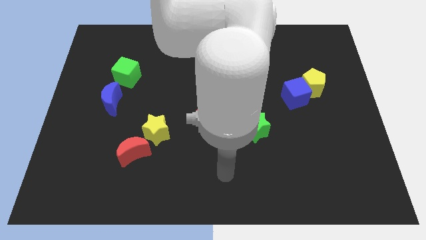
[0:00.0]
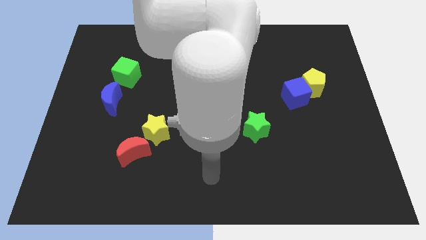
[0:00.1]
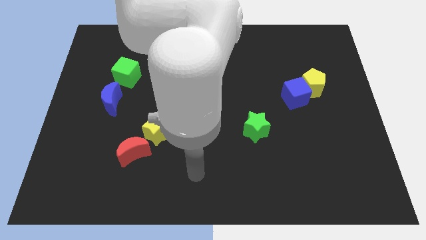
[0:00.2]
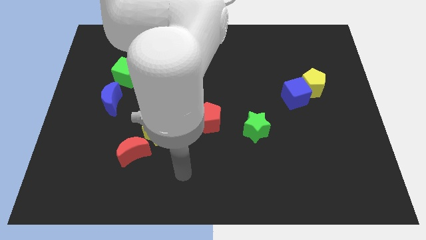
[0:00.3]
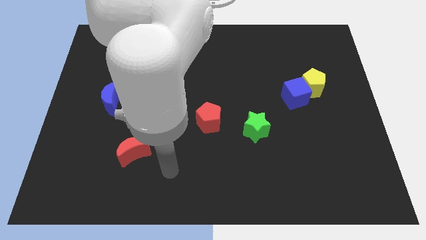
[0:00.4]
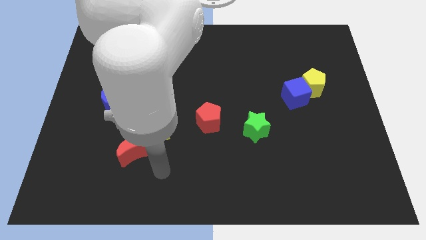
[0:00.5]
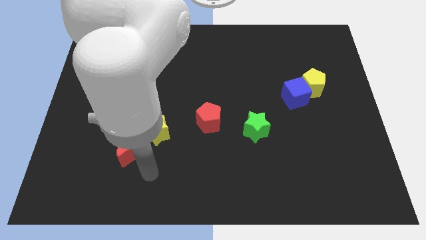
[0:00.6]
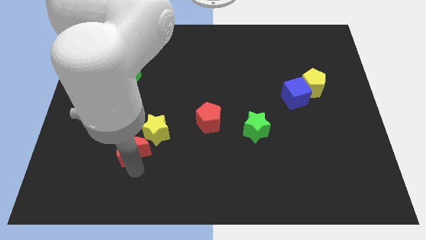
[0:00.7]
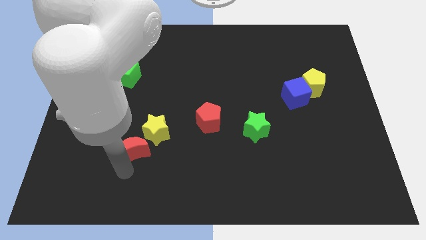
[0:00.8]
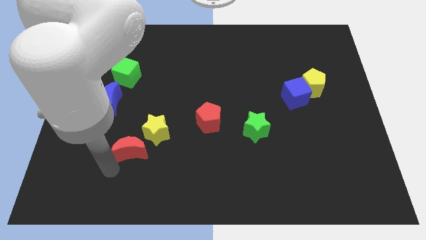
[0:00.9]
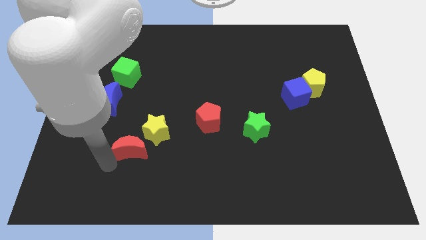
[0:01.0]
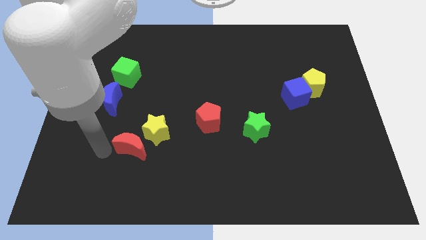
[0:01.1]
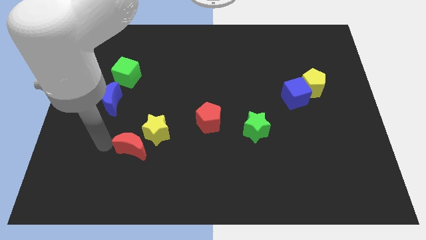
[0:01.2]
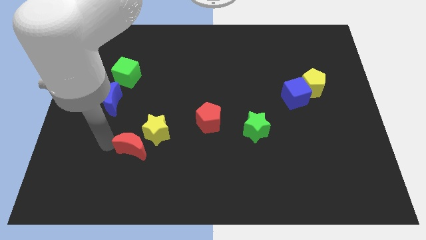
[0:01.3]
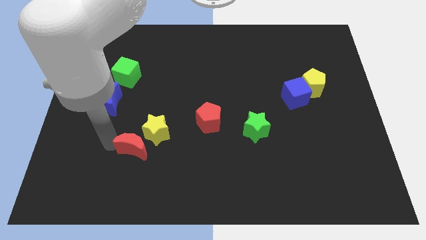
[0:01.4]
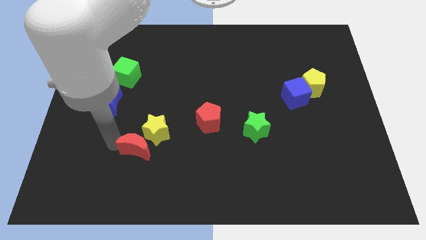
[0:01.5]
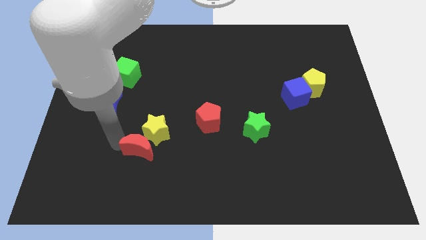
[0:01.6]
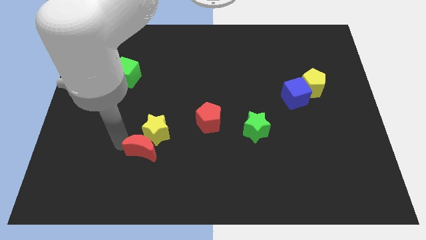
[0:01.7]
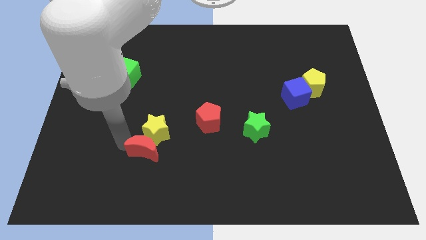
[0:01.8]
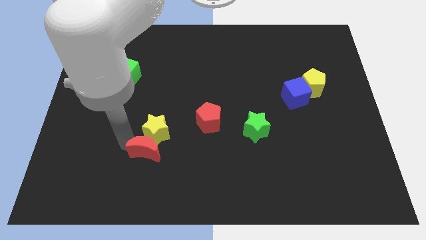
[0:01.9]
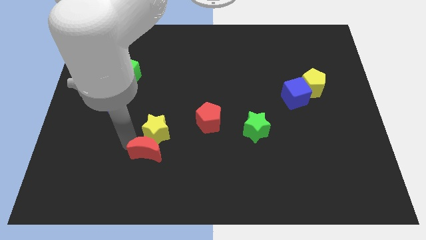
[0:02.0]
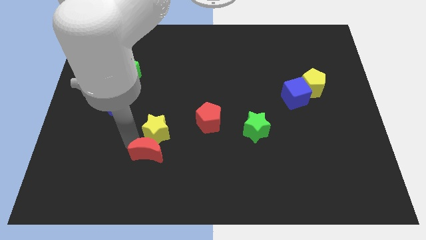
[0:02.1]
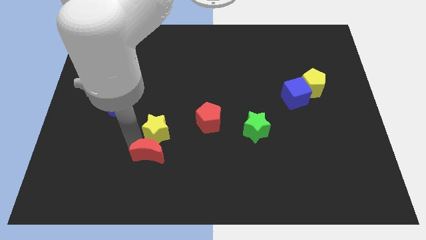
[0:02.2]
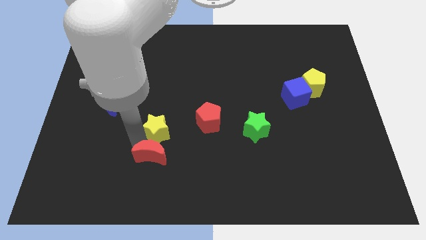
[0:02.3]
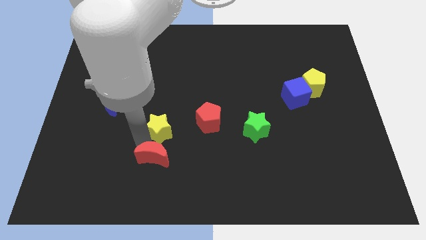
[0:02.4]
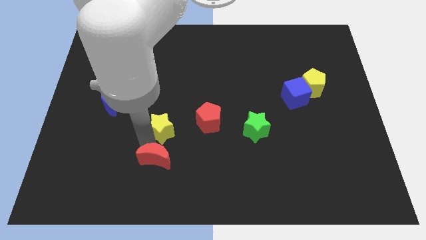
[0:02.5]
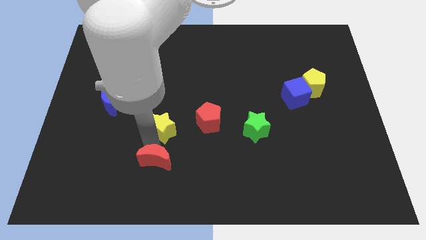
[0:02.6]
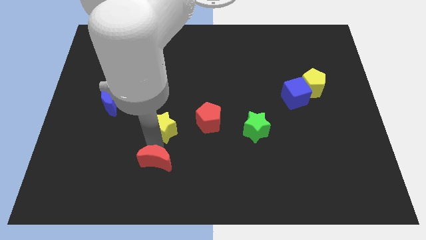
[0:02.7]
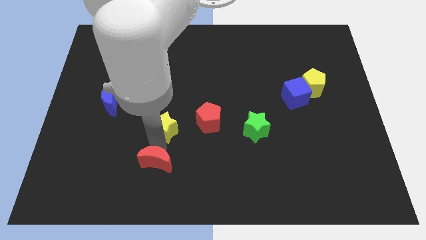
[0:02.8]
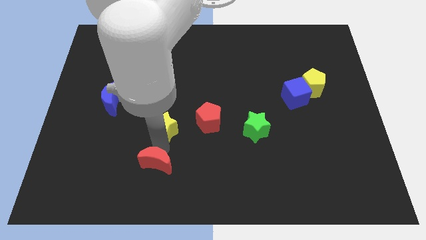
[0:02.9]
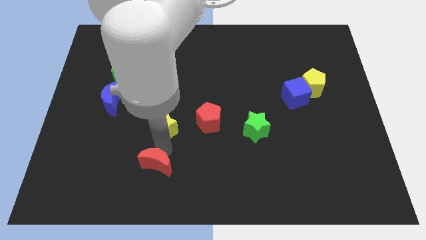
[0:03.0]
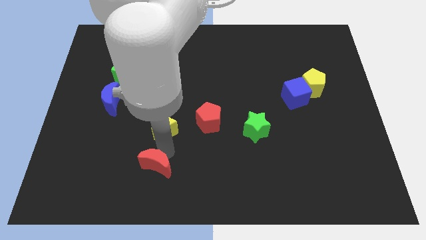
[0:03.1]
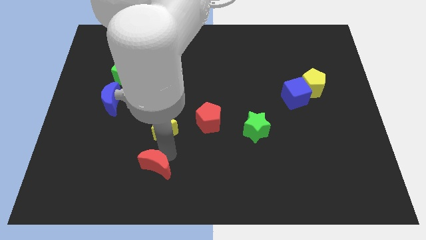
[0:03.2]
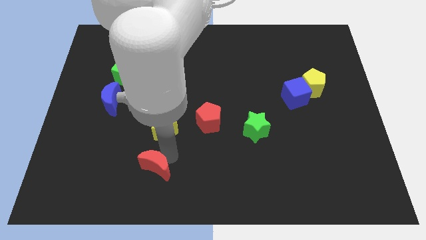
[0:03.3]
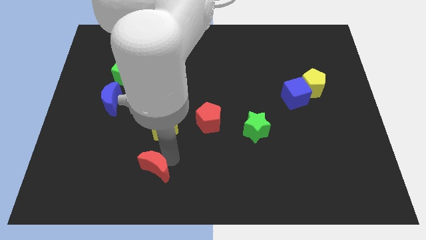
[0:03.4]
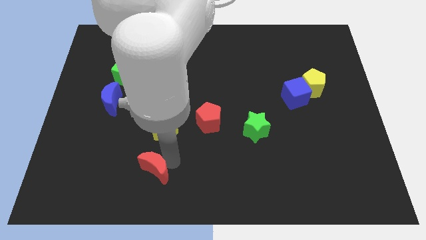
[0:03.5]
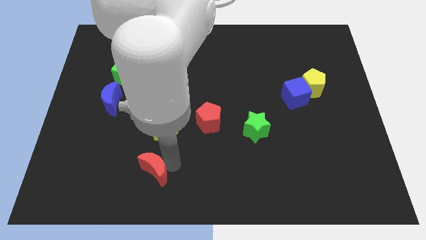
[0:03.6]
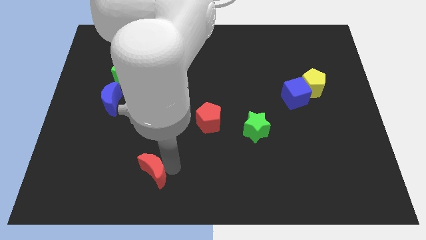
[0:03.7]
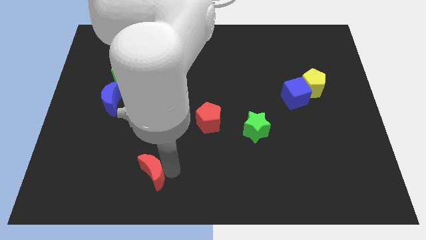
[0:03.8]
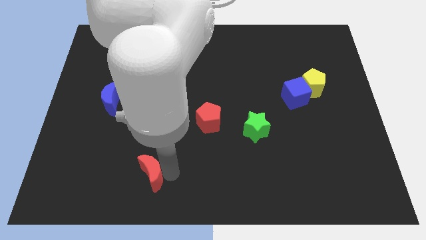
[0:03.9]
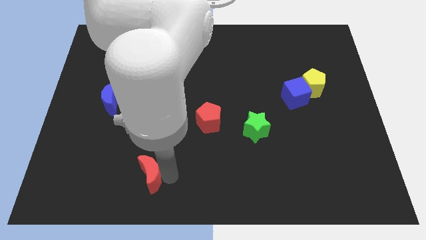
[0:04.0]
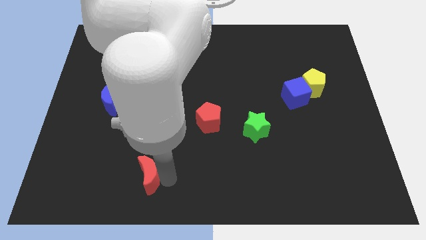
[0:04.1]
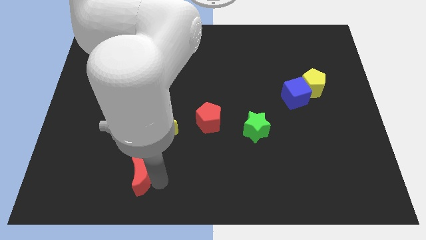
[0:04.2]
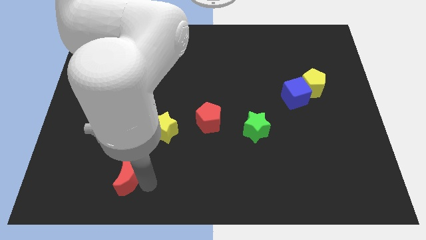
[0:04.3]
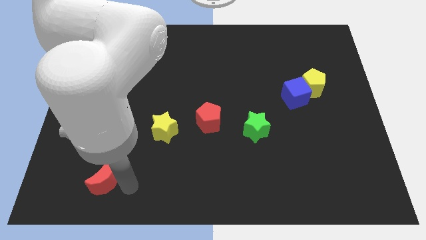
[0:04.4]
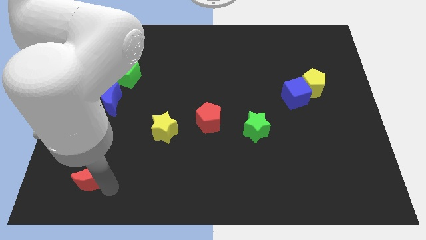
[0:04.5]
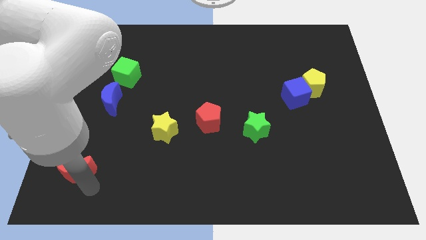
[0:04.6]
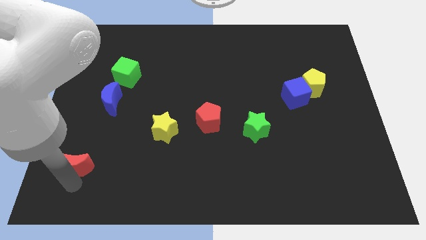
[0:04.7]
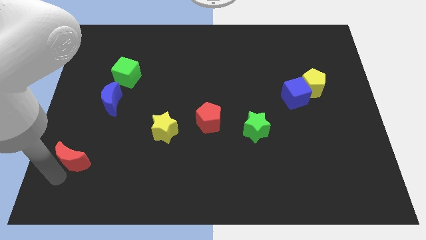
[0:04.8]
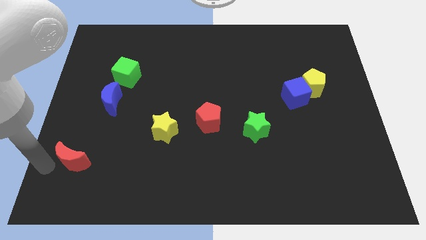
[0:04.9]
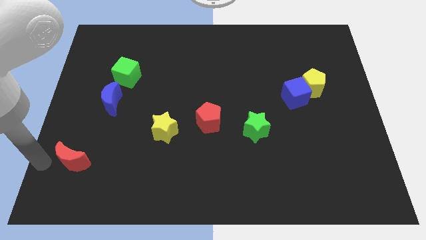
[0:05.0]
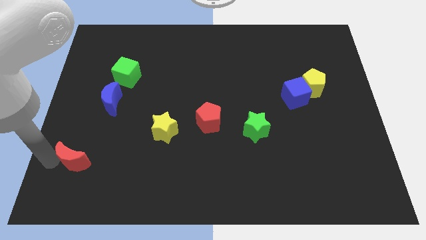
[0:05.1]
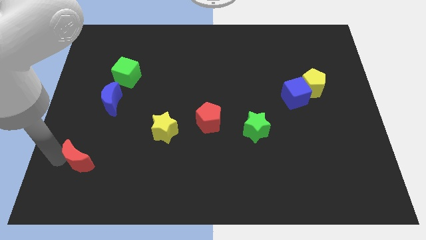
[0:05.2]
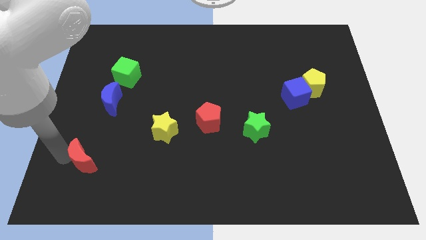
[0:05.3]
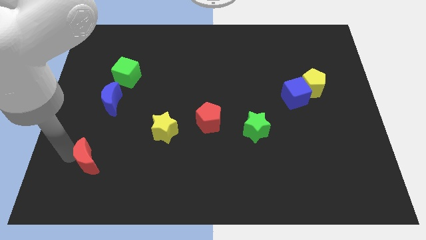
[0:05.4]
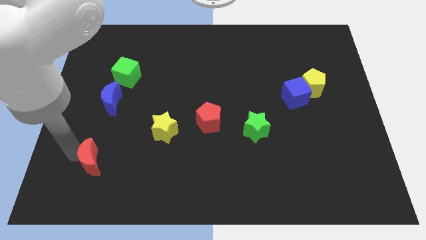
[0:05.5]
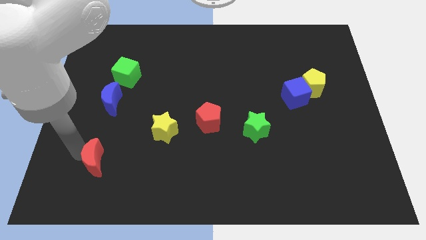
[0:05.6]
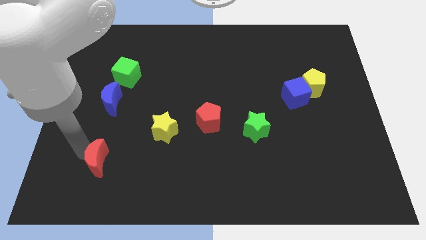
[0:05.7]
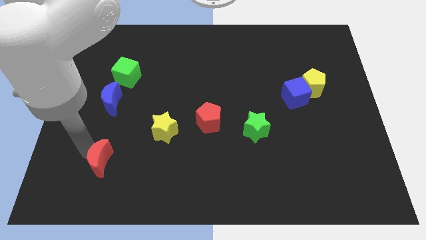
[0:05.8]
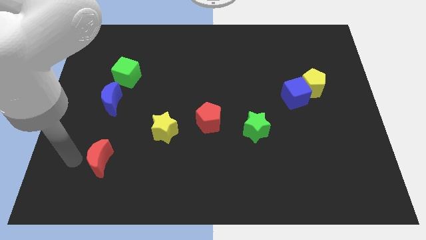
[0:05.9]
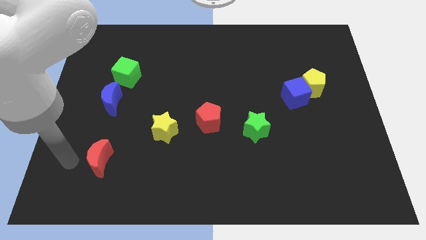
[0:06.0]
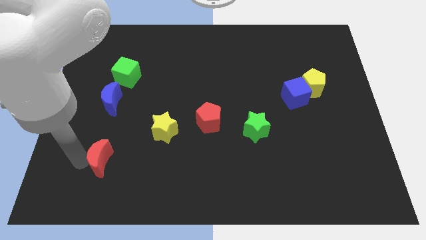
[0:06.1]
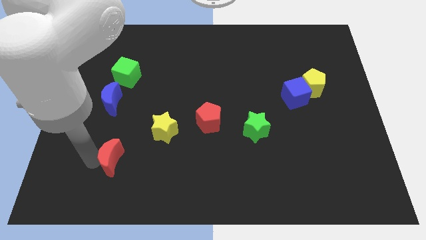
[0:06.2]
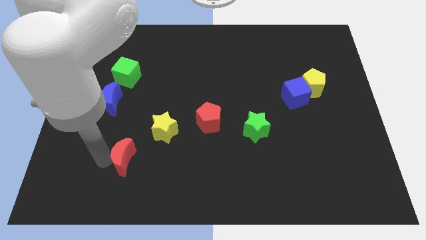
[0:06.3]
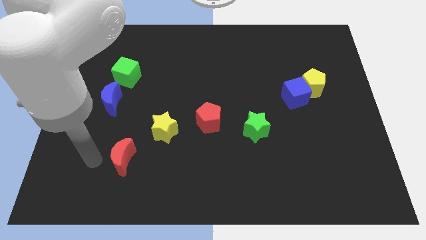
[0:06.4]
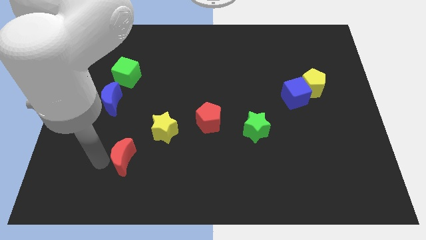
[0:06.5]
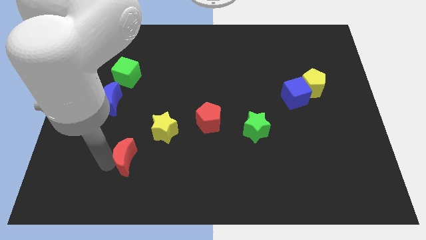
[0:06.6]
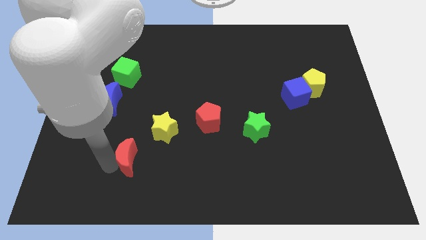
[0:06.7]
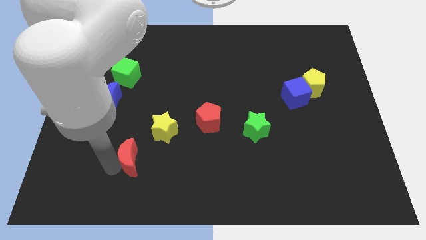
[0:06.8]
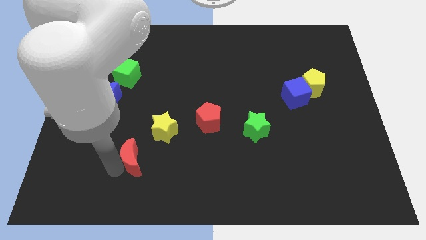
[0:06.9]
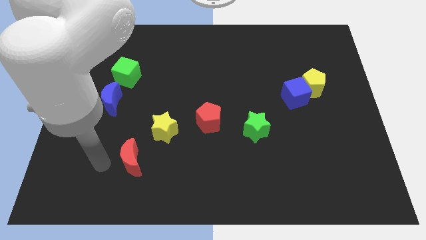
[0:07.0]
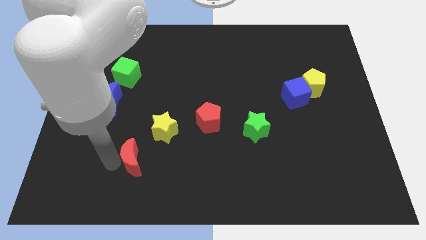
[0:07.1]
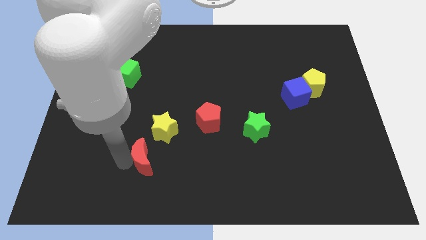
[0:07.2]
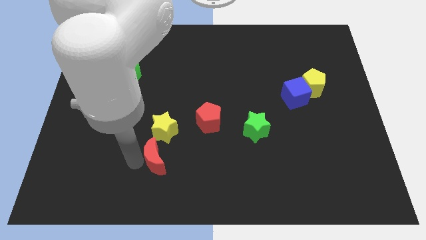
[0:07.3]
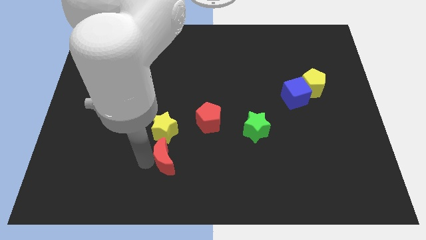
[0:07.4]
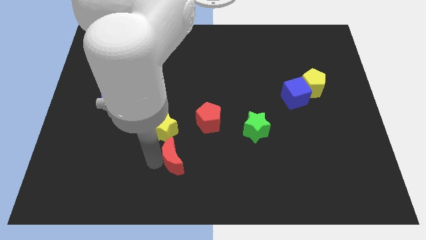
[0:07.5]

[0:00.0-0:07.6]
move the red moon a bit right

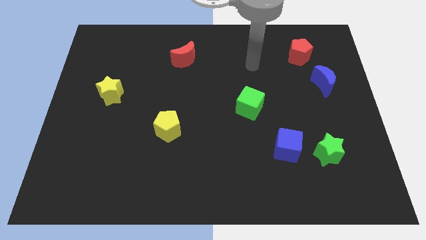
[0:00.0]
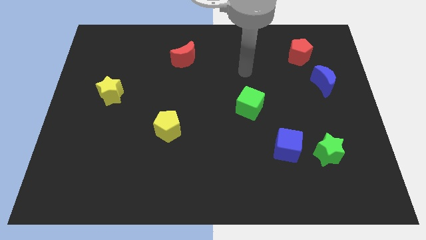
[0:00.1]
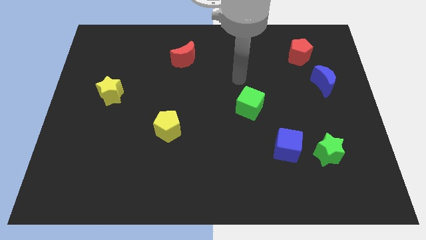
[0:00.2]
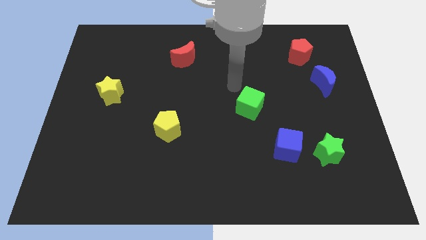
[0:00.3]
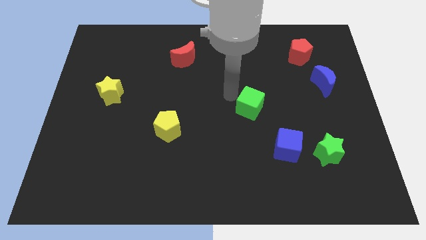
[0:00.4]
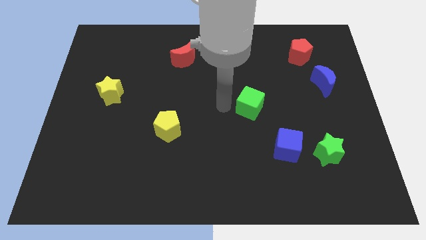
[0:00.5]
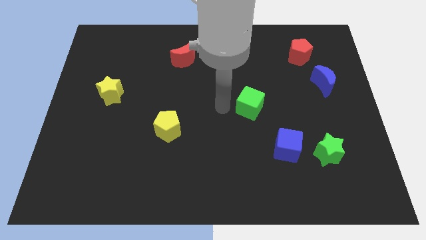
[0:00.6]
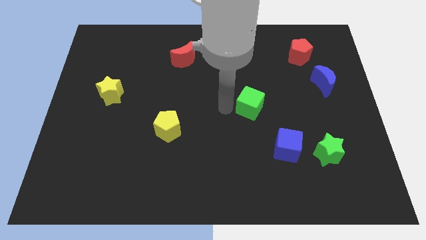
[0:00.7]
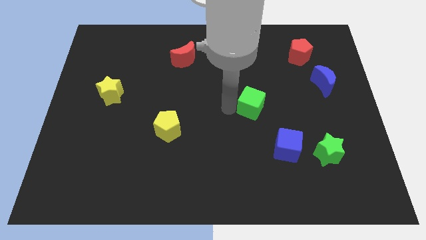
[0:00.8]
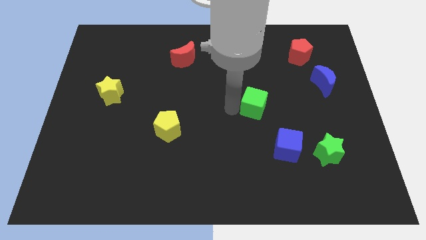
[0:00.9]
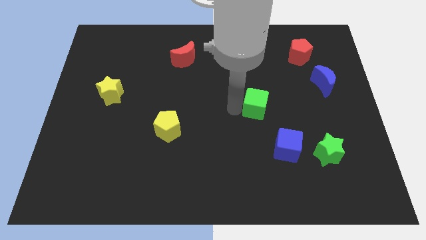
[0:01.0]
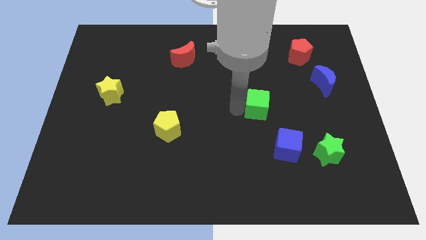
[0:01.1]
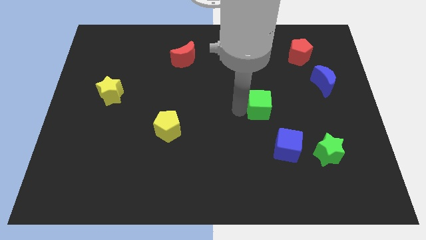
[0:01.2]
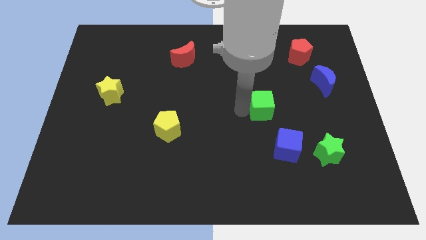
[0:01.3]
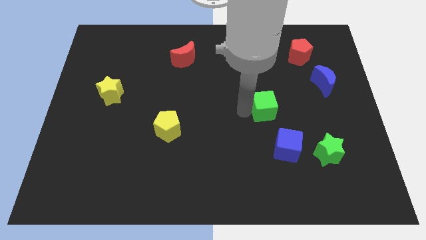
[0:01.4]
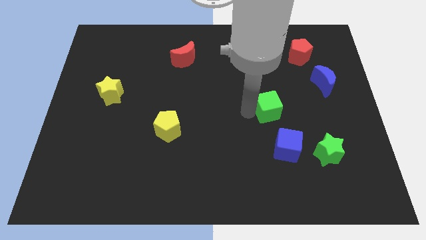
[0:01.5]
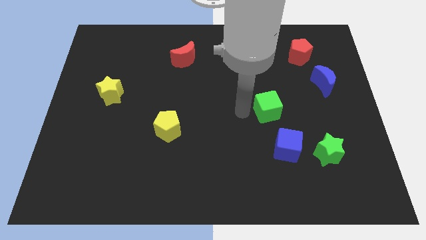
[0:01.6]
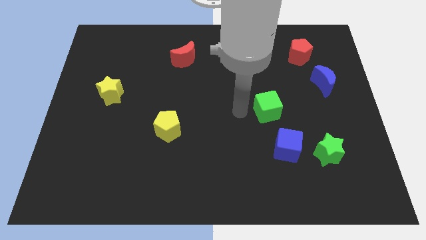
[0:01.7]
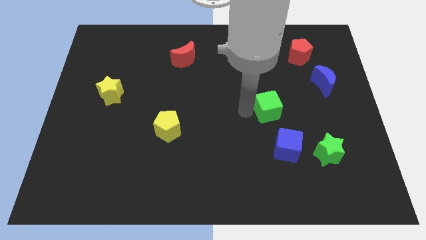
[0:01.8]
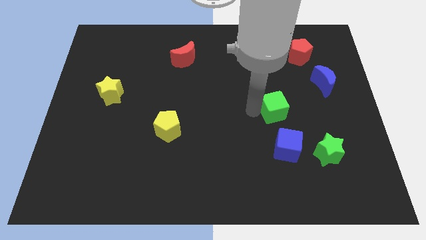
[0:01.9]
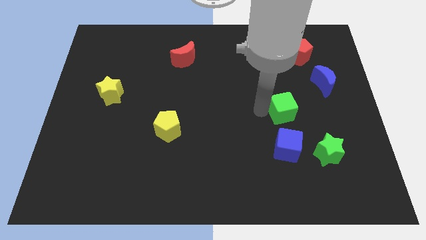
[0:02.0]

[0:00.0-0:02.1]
slightly push the green cube right
